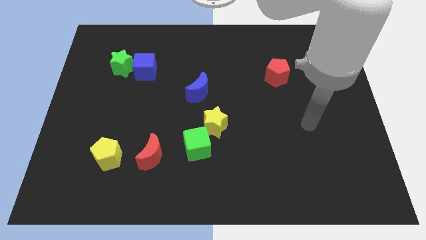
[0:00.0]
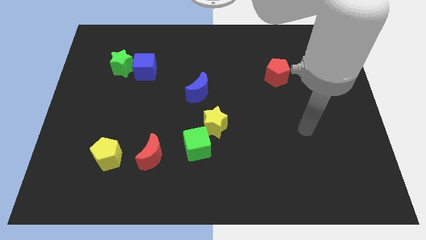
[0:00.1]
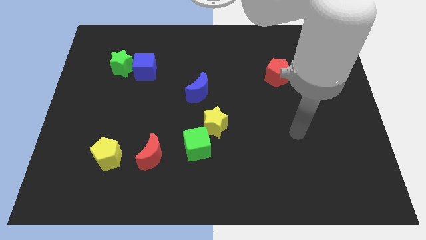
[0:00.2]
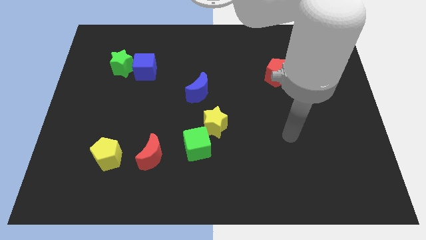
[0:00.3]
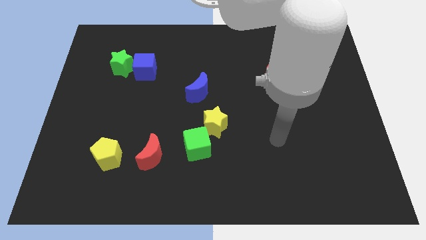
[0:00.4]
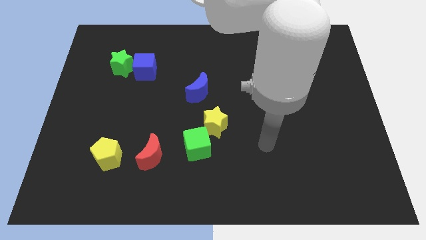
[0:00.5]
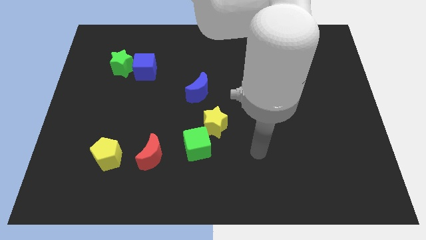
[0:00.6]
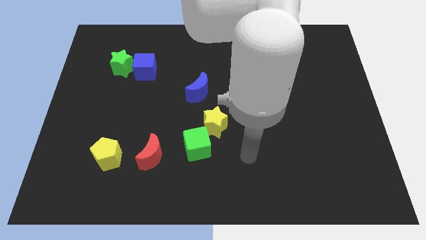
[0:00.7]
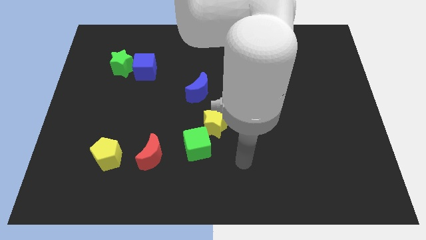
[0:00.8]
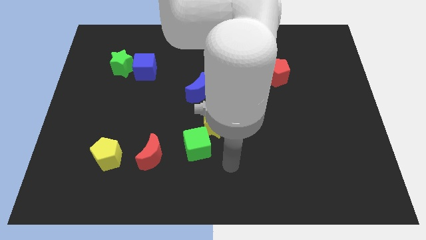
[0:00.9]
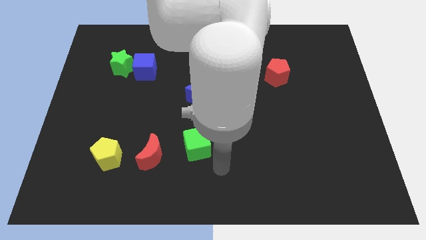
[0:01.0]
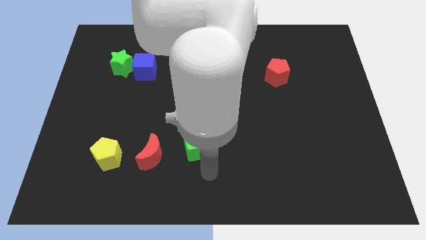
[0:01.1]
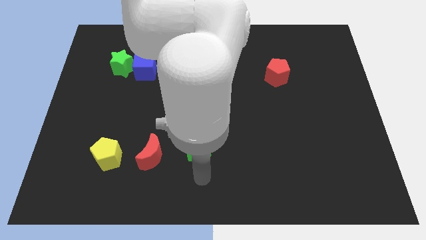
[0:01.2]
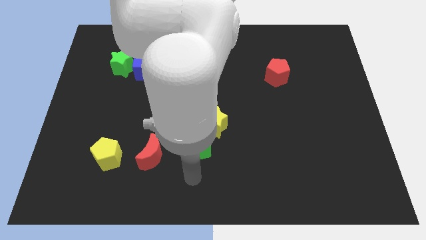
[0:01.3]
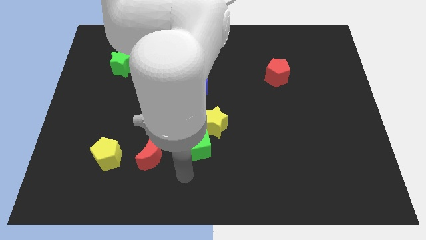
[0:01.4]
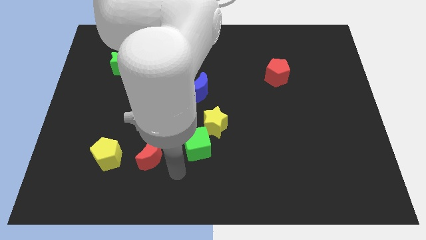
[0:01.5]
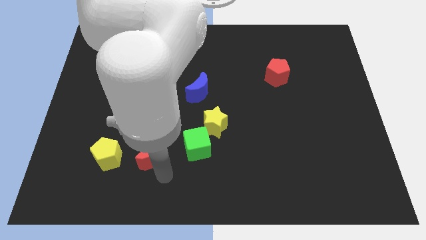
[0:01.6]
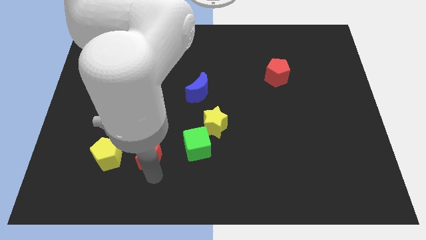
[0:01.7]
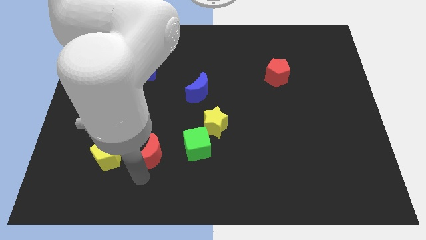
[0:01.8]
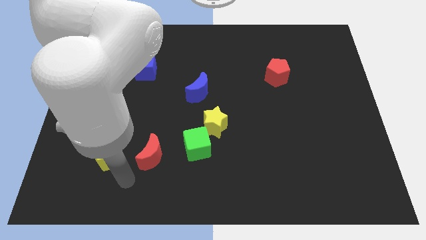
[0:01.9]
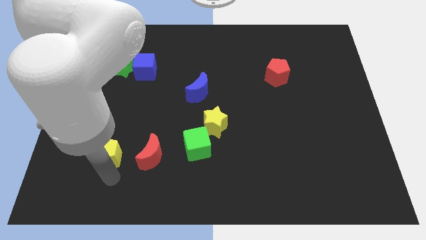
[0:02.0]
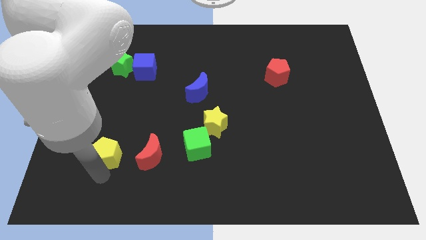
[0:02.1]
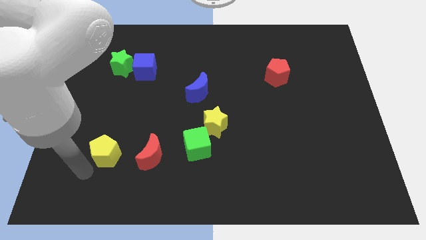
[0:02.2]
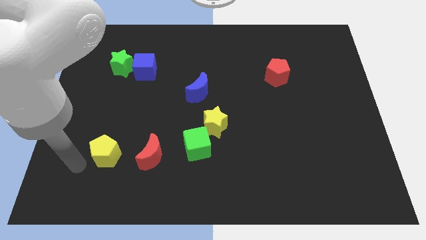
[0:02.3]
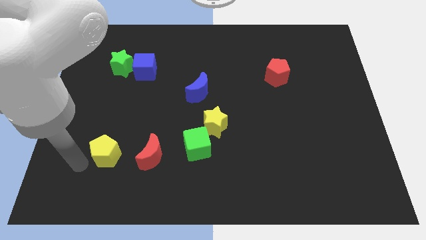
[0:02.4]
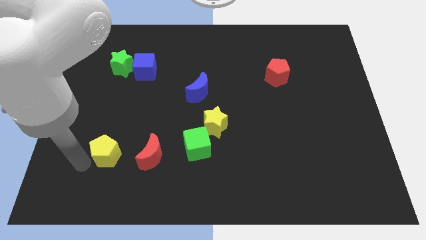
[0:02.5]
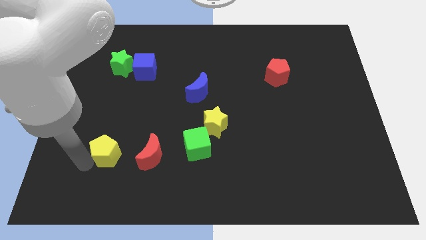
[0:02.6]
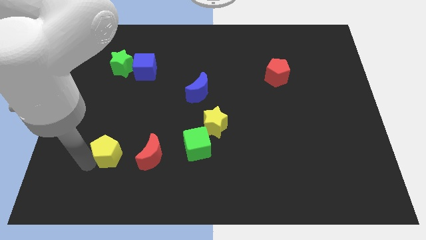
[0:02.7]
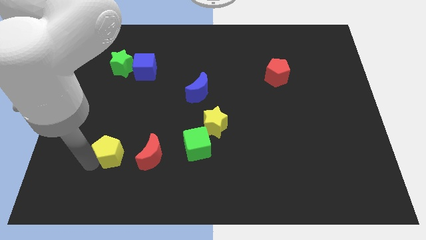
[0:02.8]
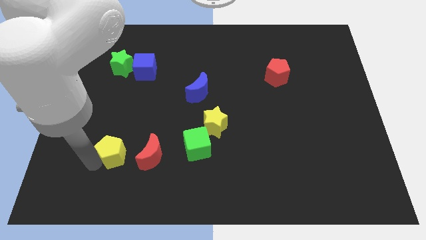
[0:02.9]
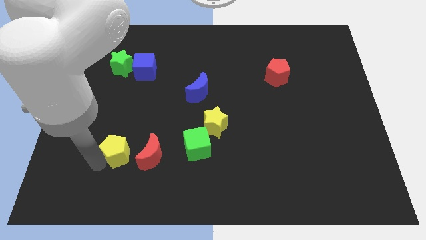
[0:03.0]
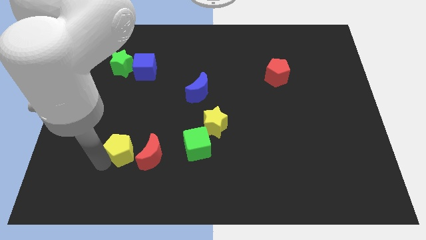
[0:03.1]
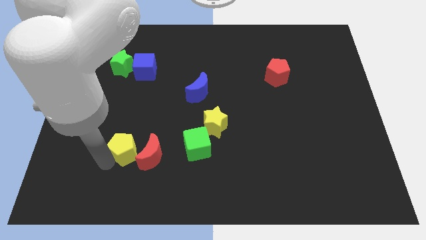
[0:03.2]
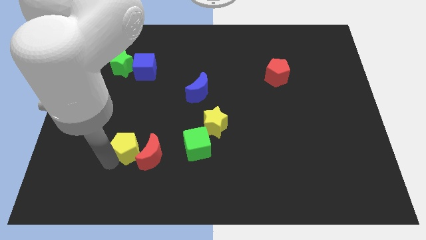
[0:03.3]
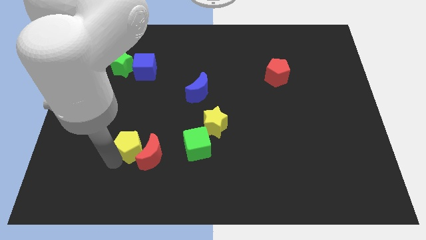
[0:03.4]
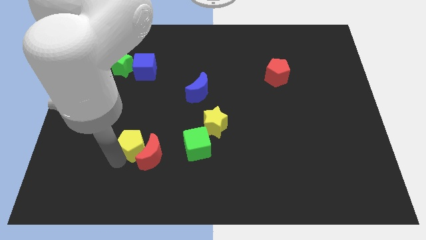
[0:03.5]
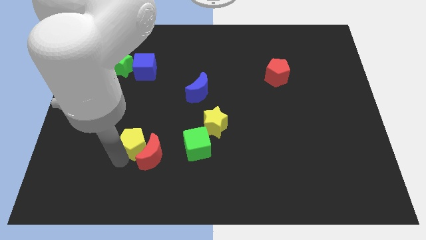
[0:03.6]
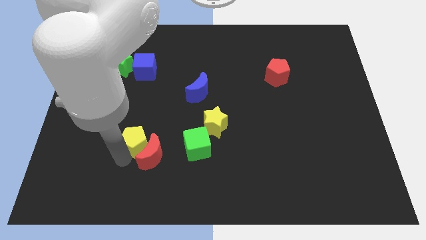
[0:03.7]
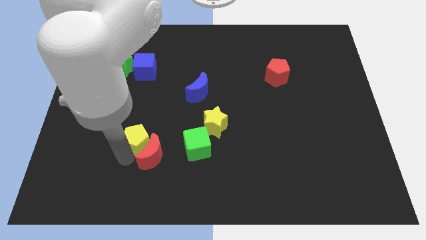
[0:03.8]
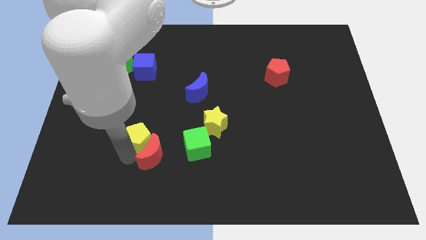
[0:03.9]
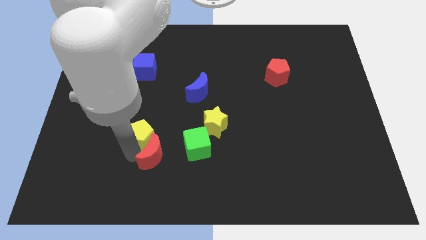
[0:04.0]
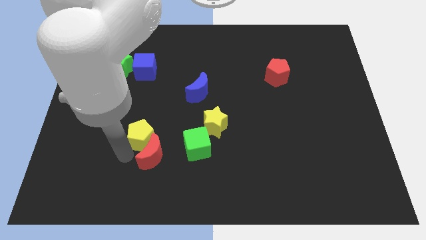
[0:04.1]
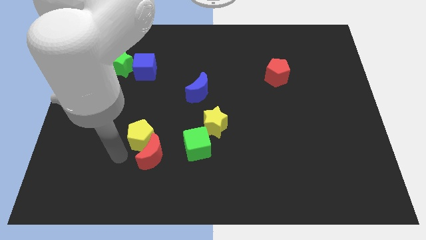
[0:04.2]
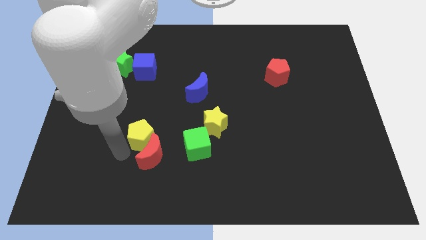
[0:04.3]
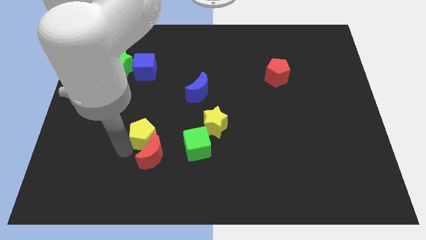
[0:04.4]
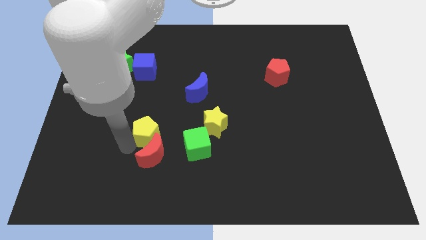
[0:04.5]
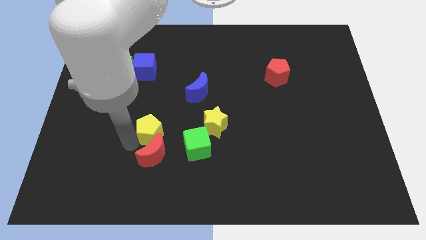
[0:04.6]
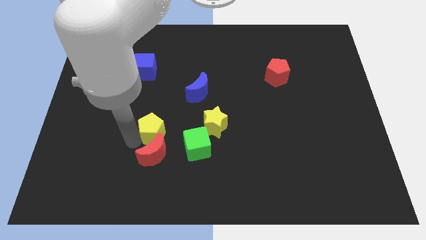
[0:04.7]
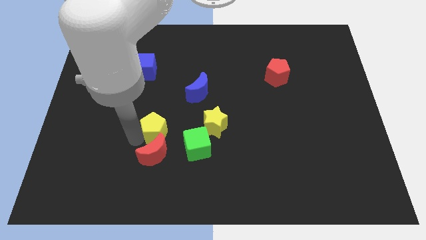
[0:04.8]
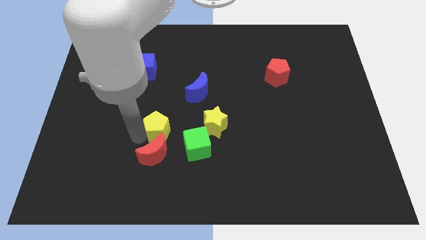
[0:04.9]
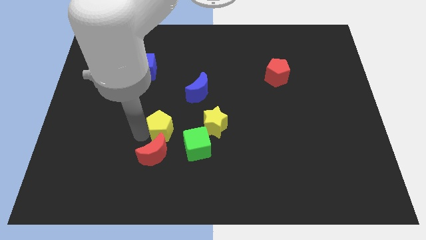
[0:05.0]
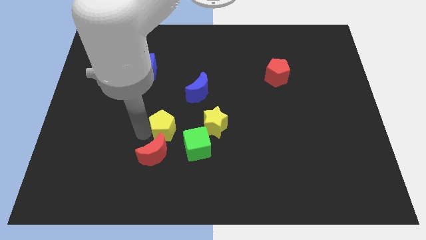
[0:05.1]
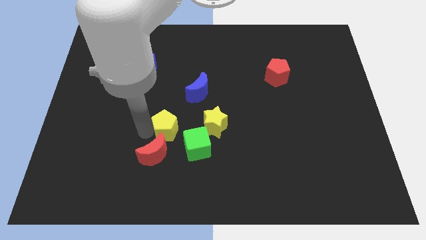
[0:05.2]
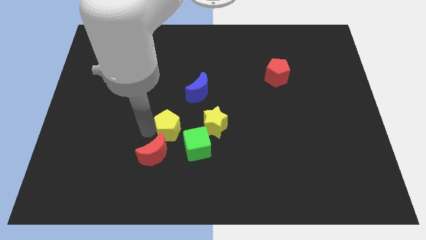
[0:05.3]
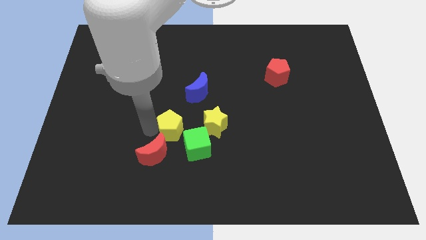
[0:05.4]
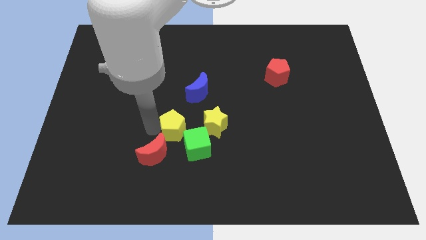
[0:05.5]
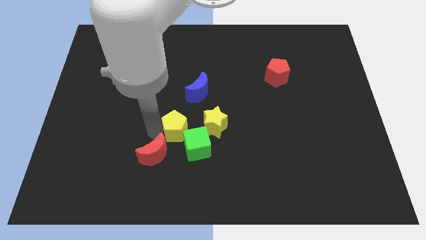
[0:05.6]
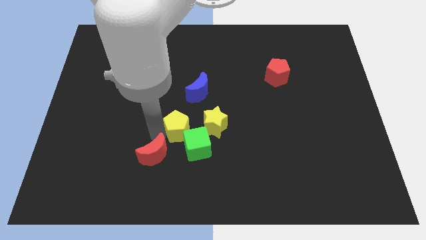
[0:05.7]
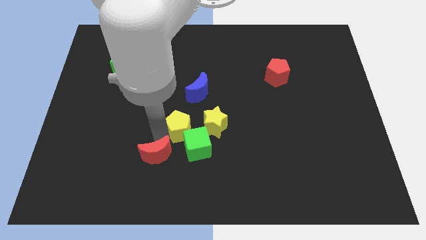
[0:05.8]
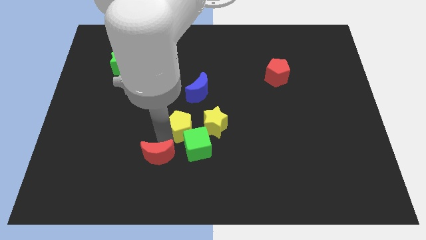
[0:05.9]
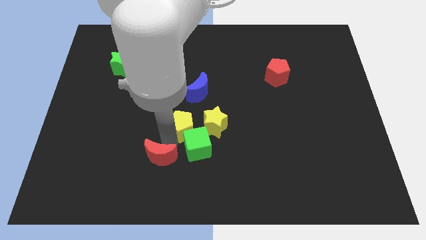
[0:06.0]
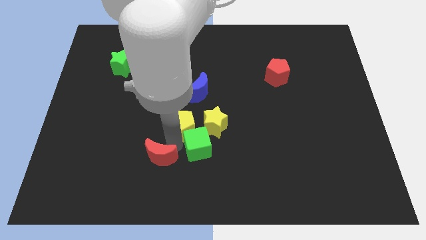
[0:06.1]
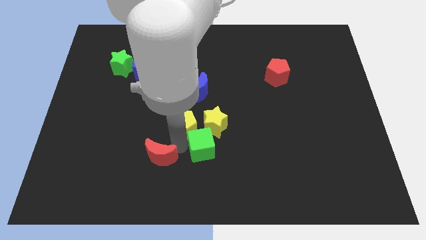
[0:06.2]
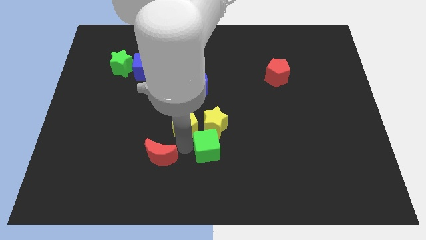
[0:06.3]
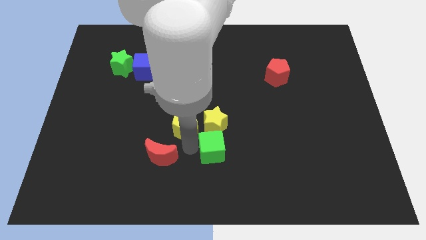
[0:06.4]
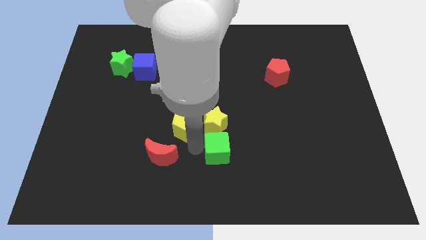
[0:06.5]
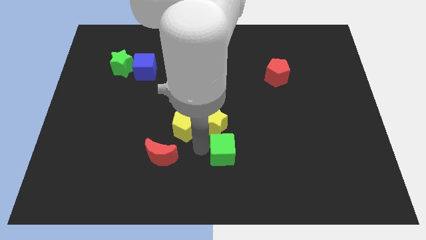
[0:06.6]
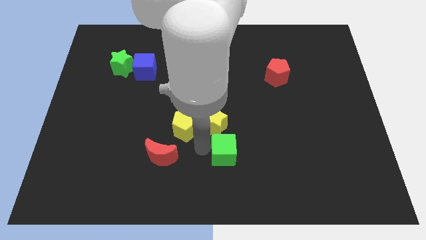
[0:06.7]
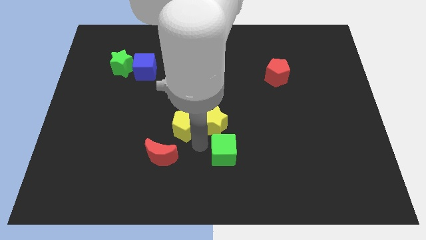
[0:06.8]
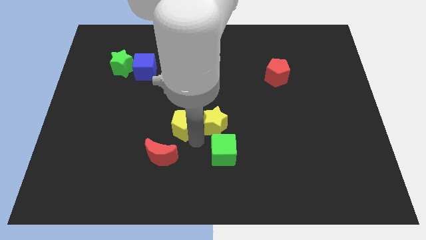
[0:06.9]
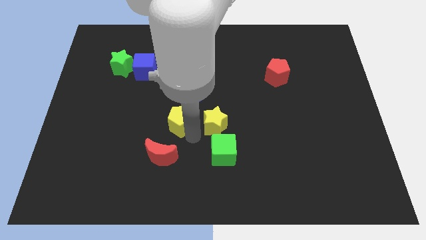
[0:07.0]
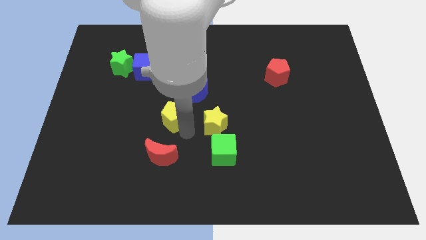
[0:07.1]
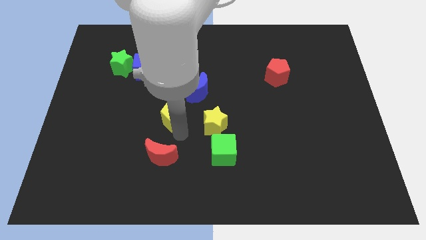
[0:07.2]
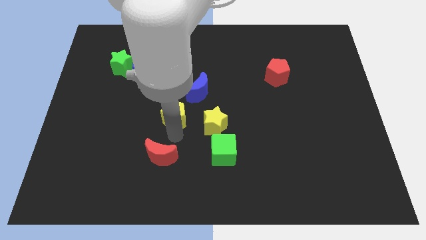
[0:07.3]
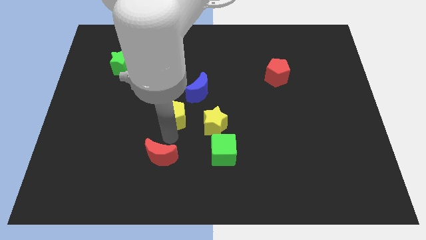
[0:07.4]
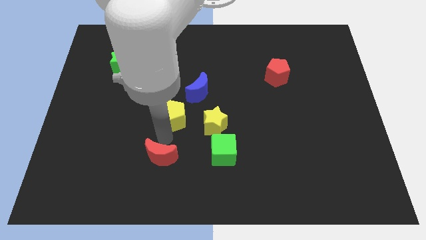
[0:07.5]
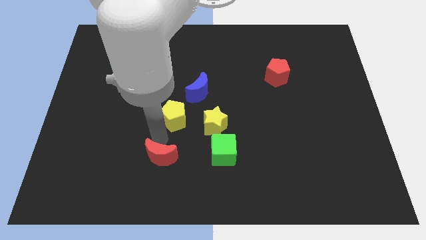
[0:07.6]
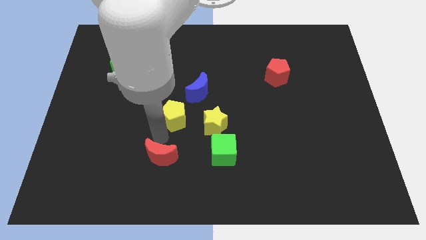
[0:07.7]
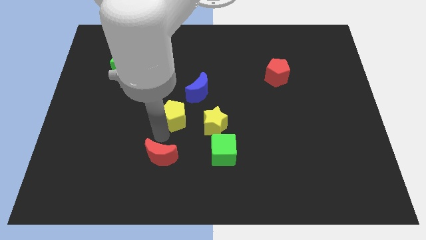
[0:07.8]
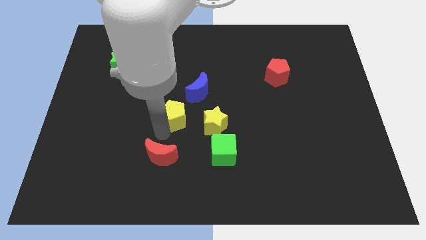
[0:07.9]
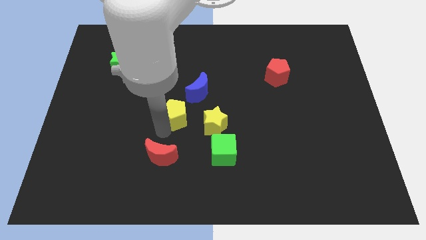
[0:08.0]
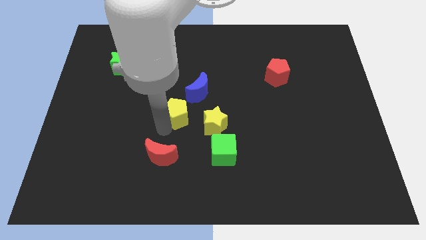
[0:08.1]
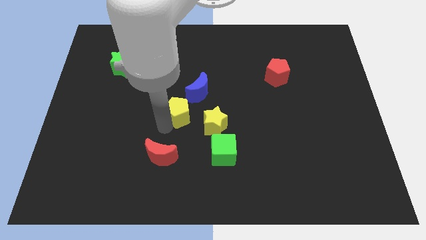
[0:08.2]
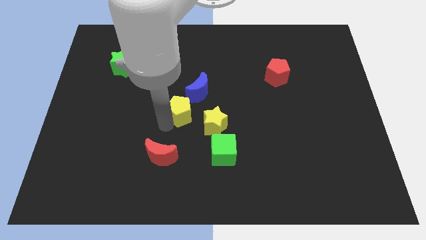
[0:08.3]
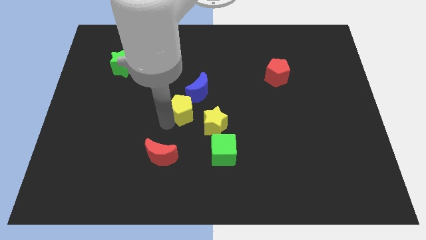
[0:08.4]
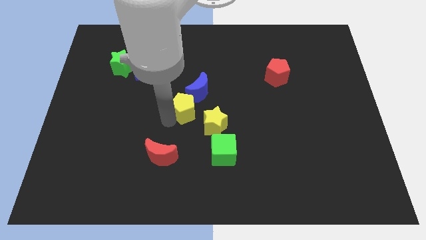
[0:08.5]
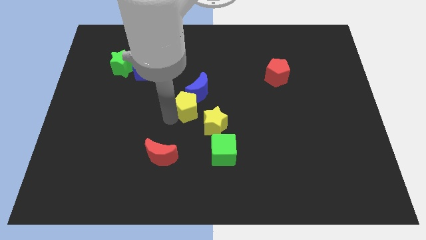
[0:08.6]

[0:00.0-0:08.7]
slide the yellow pentagon close to the blue moon
